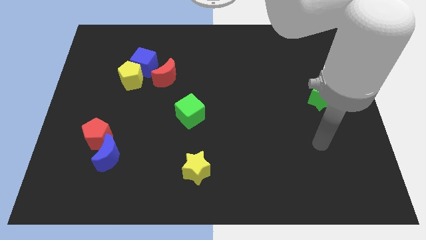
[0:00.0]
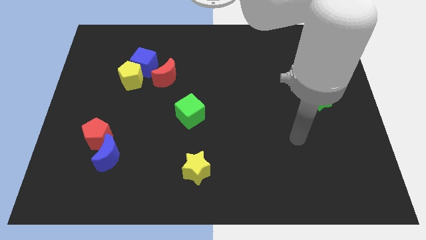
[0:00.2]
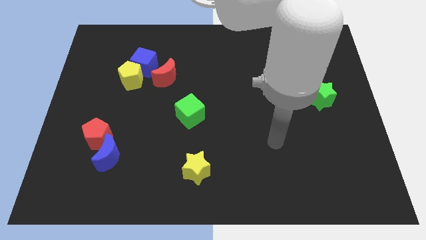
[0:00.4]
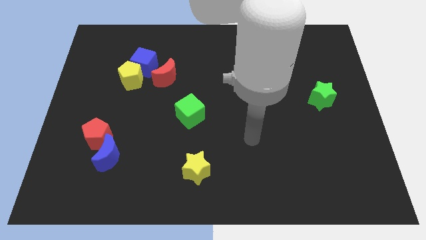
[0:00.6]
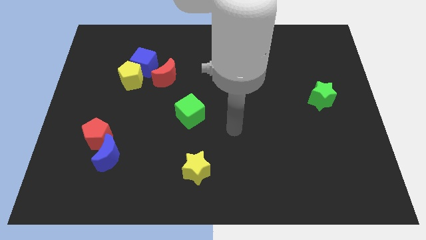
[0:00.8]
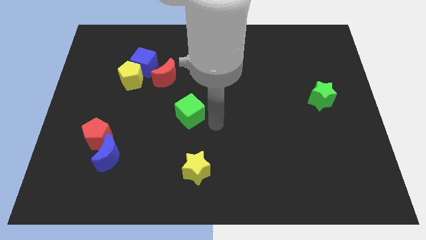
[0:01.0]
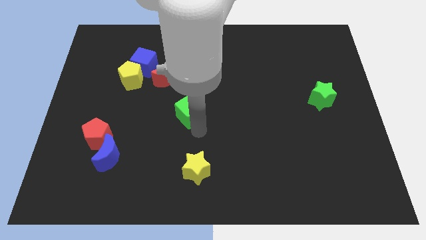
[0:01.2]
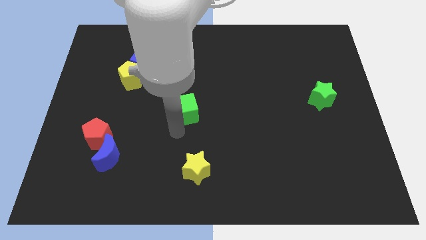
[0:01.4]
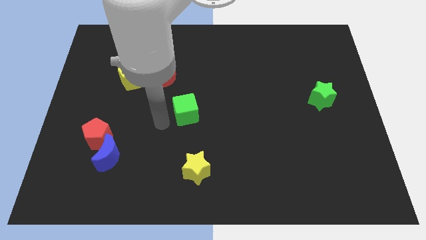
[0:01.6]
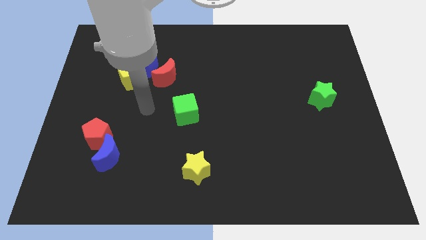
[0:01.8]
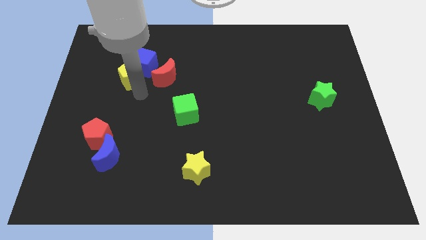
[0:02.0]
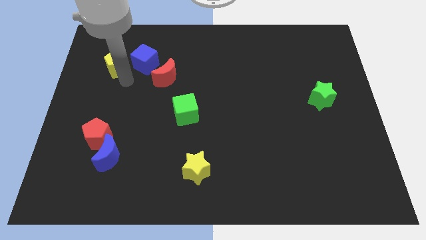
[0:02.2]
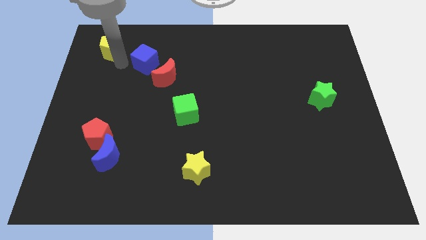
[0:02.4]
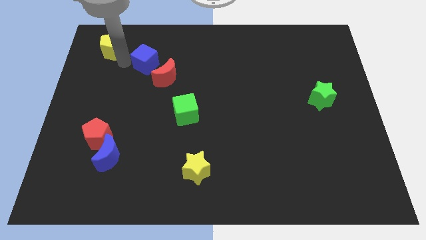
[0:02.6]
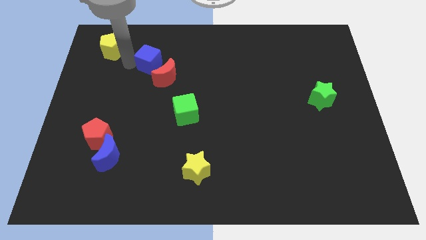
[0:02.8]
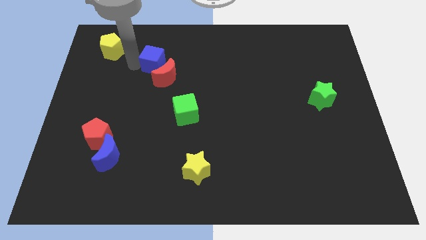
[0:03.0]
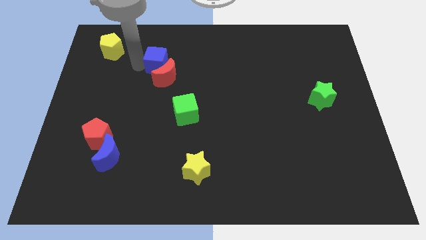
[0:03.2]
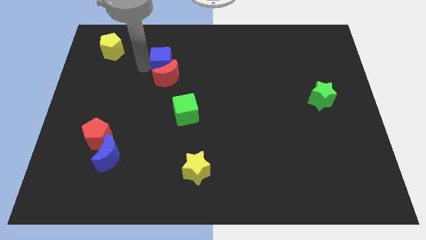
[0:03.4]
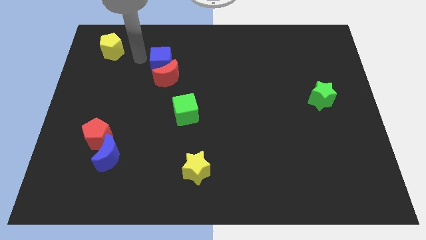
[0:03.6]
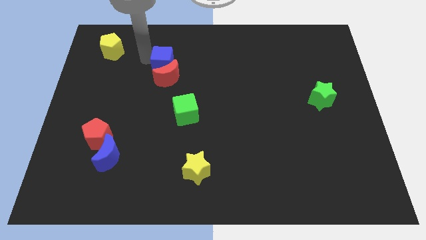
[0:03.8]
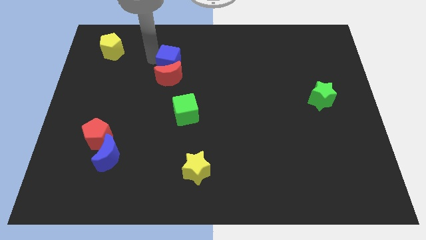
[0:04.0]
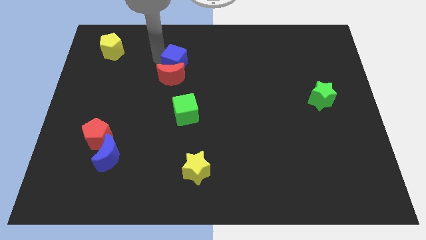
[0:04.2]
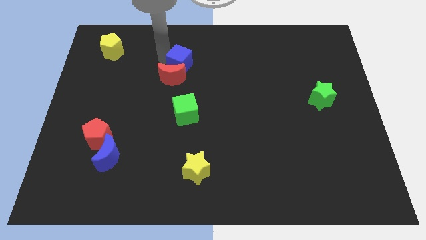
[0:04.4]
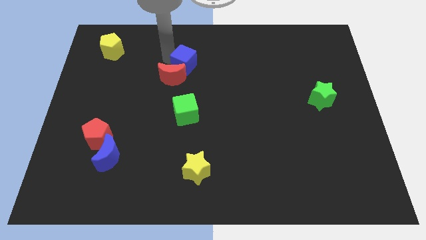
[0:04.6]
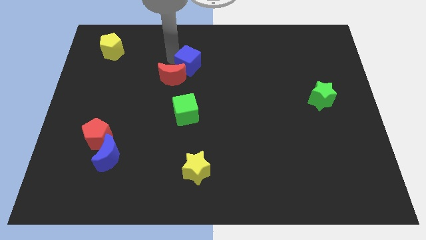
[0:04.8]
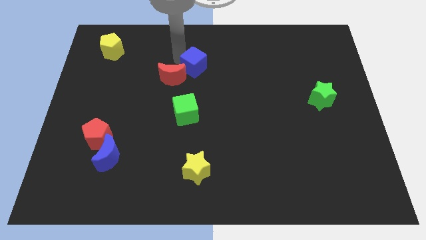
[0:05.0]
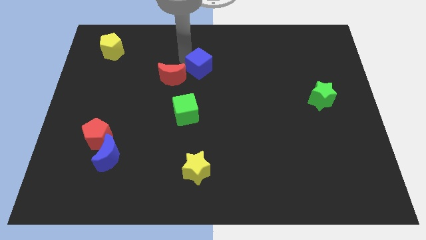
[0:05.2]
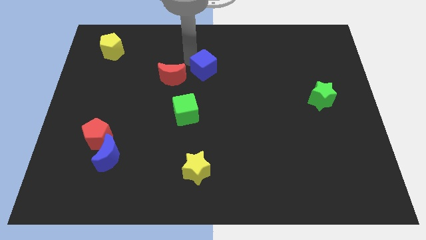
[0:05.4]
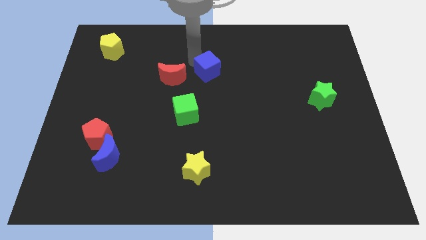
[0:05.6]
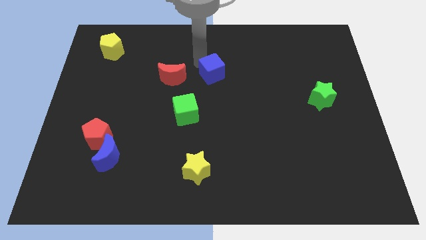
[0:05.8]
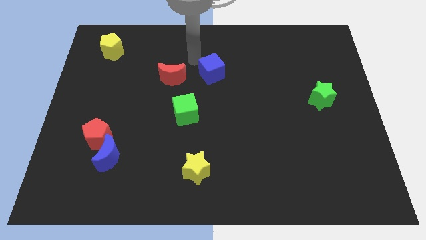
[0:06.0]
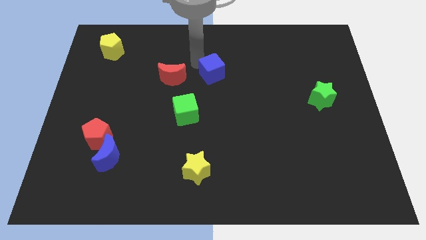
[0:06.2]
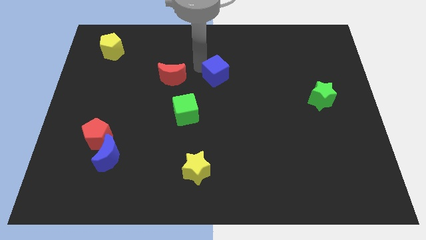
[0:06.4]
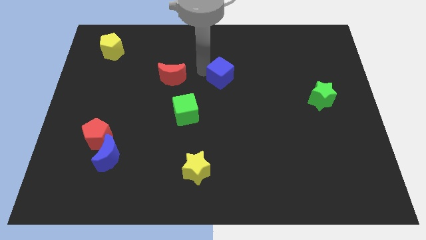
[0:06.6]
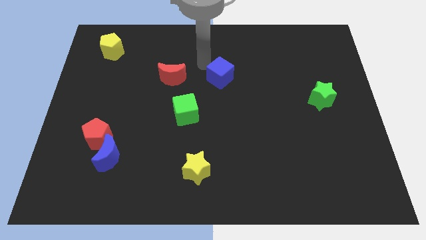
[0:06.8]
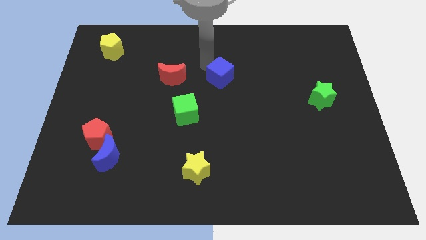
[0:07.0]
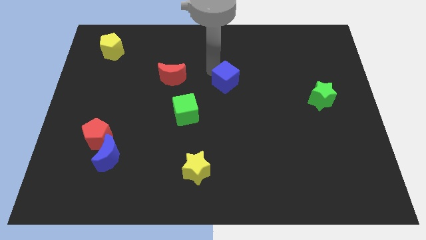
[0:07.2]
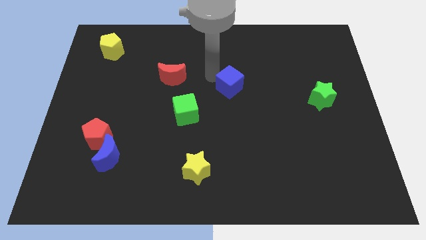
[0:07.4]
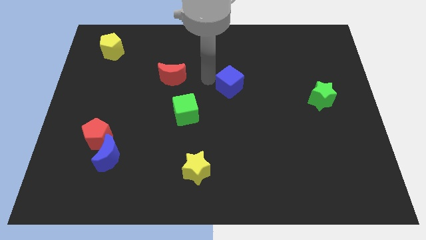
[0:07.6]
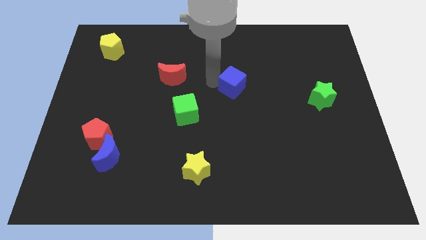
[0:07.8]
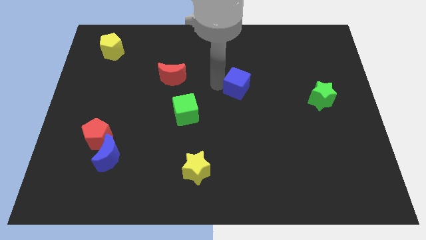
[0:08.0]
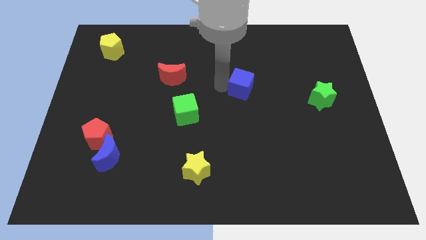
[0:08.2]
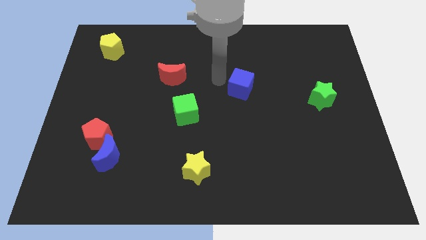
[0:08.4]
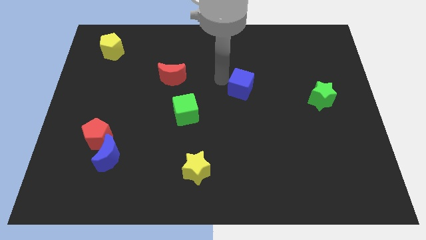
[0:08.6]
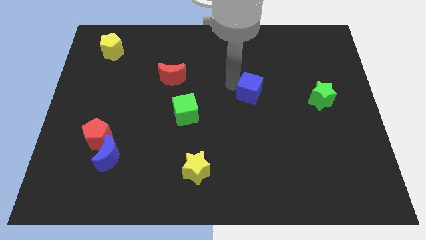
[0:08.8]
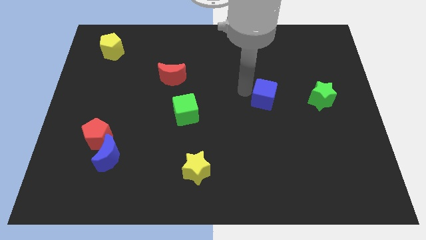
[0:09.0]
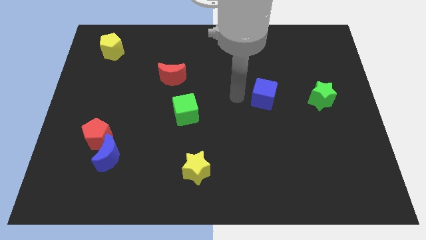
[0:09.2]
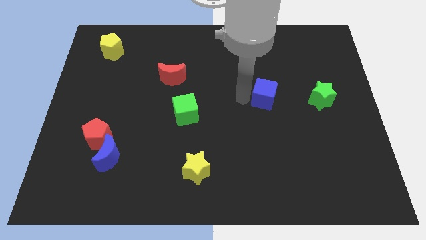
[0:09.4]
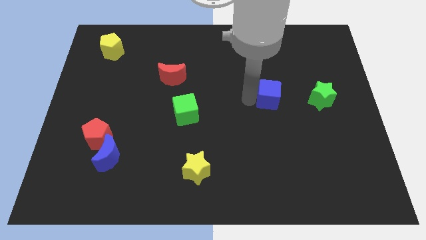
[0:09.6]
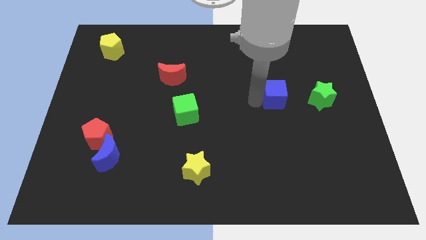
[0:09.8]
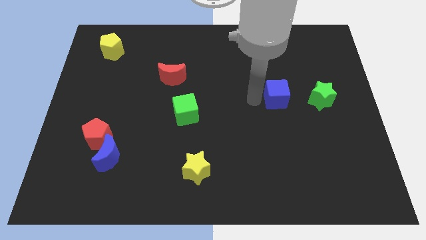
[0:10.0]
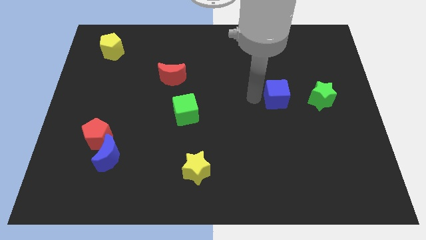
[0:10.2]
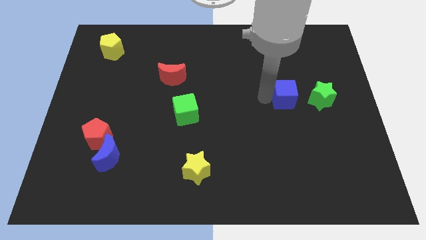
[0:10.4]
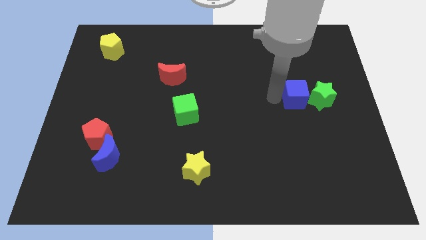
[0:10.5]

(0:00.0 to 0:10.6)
push the blue cube towards the green star

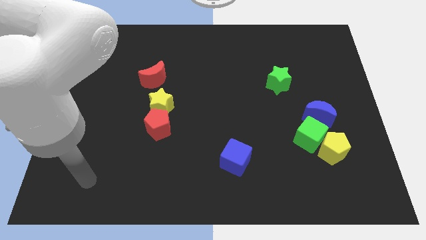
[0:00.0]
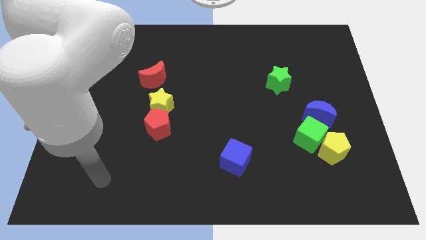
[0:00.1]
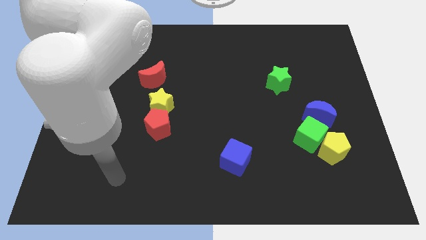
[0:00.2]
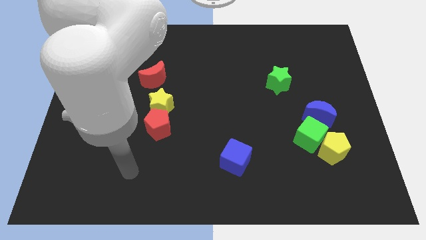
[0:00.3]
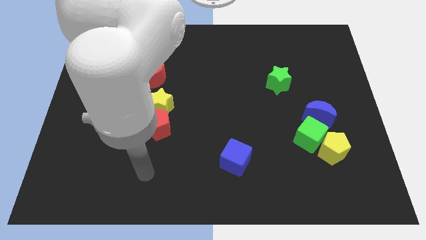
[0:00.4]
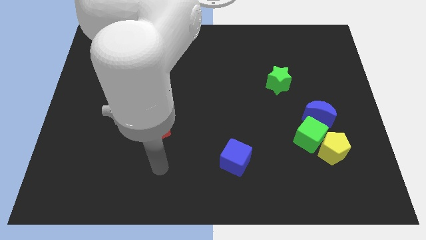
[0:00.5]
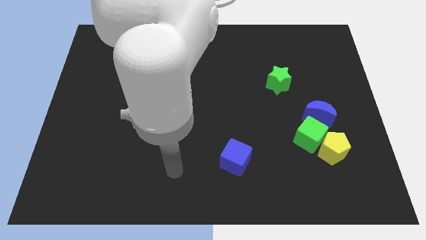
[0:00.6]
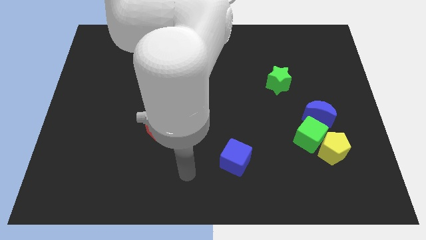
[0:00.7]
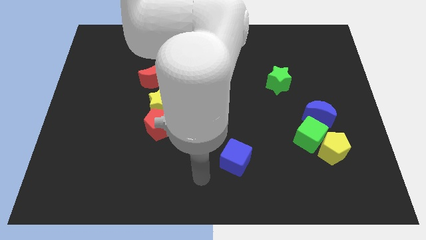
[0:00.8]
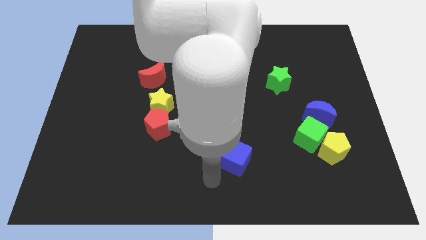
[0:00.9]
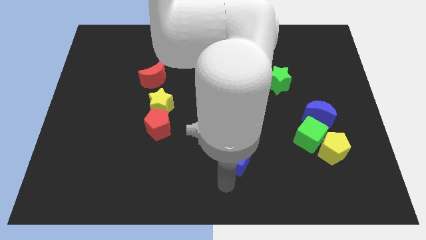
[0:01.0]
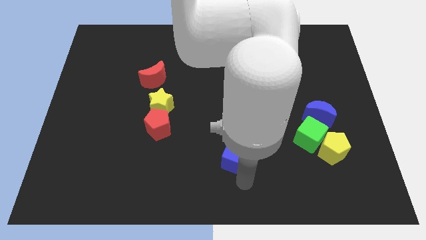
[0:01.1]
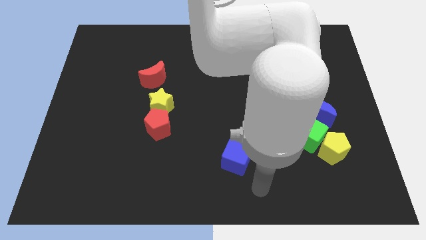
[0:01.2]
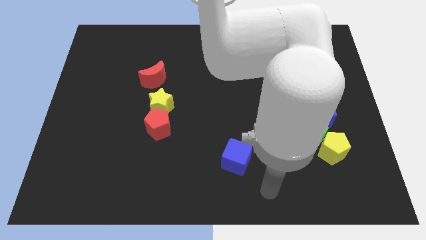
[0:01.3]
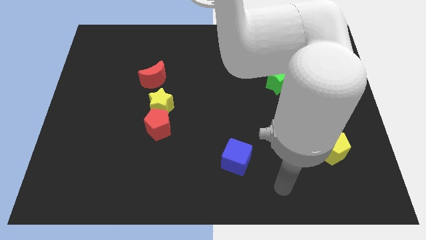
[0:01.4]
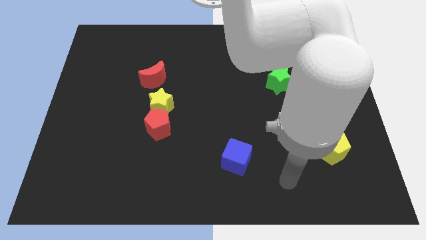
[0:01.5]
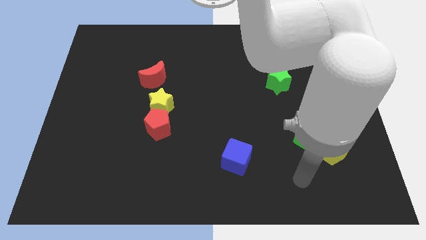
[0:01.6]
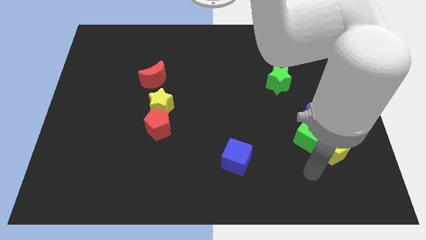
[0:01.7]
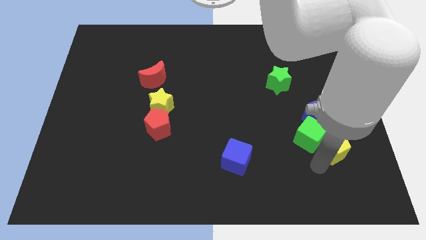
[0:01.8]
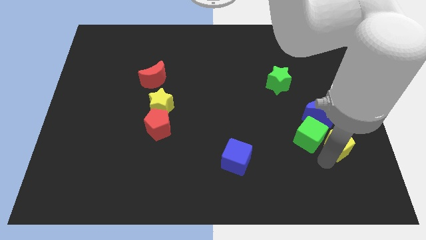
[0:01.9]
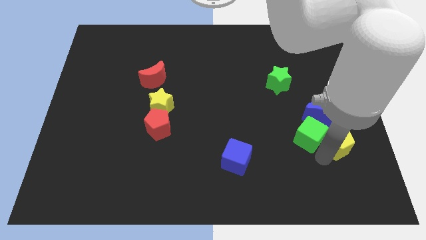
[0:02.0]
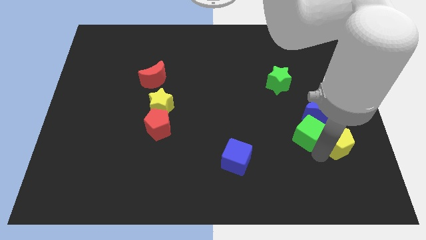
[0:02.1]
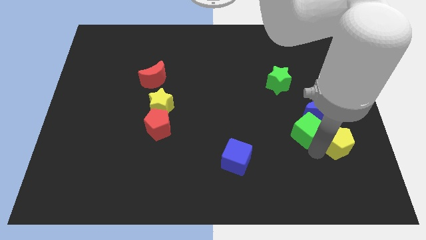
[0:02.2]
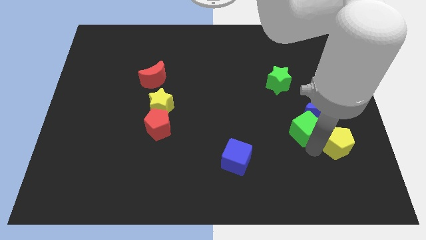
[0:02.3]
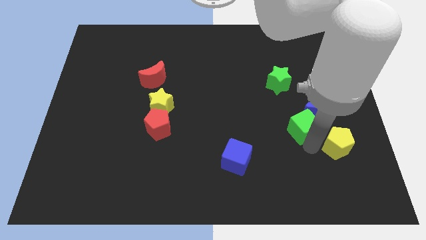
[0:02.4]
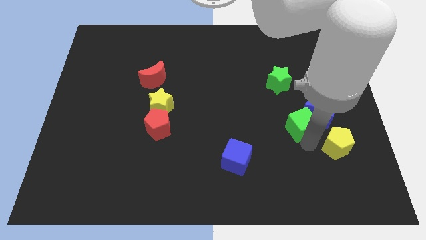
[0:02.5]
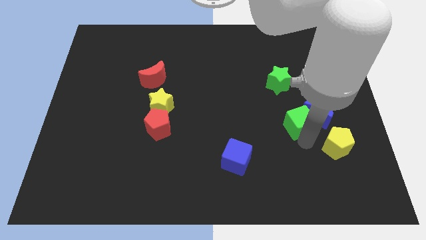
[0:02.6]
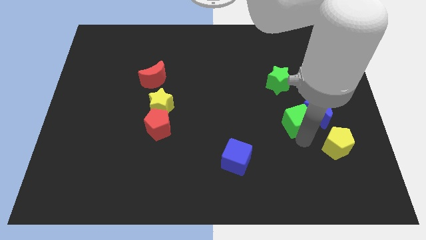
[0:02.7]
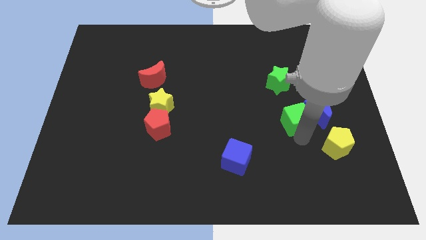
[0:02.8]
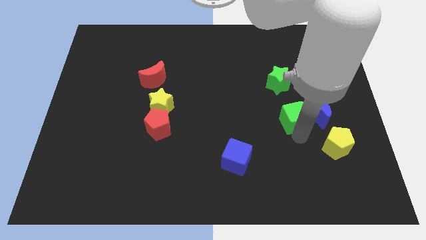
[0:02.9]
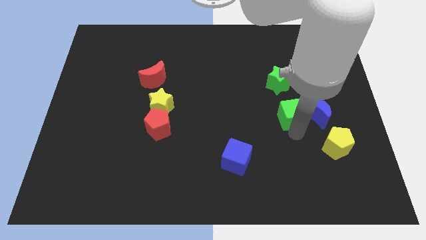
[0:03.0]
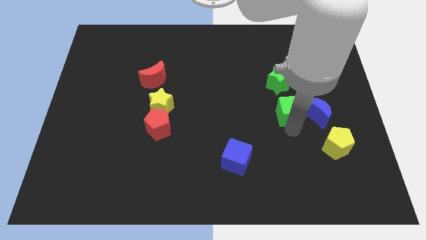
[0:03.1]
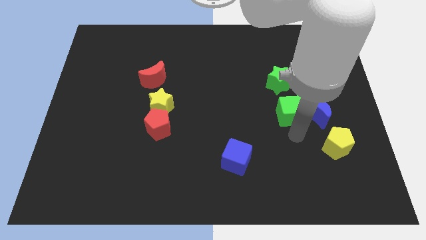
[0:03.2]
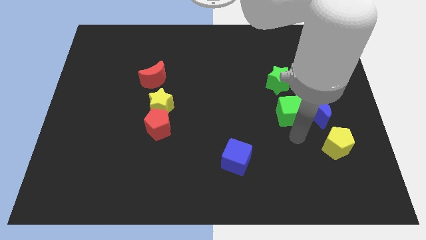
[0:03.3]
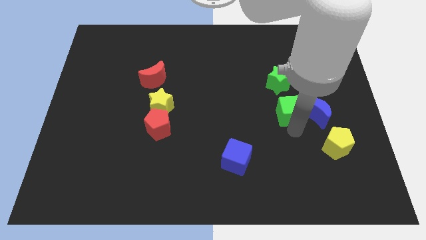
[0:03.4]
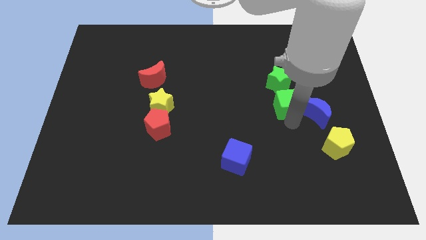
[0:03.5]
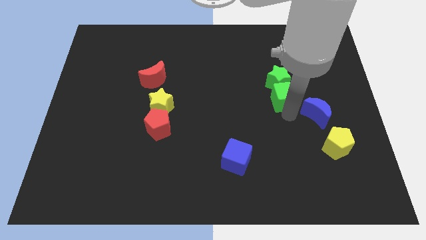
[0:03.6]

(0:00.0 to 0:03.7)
move the green cube next to the green star
